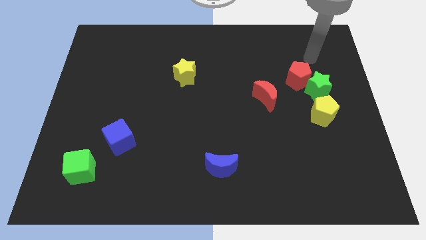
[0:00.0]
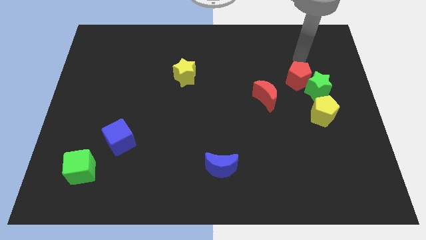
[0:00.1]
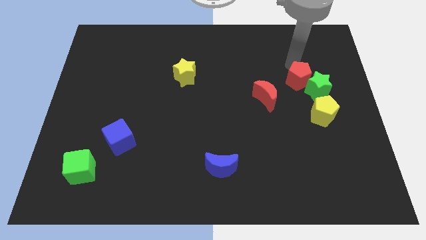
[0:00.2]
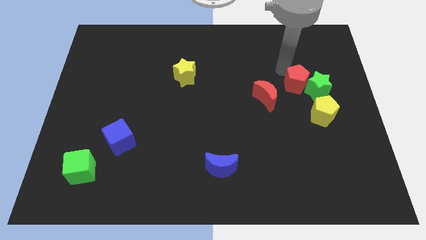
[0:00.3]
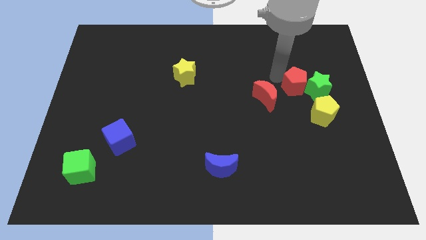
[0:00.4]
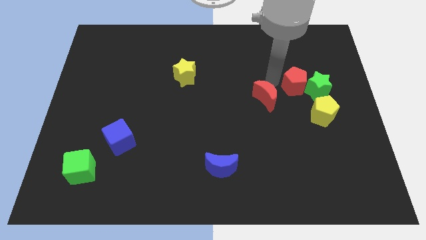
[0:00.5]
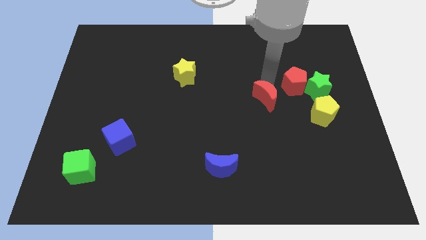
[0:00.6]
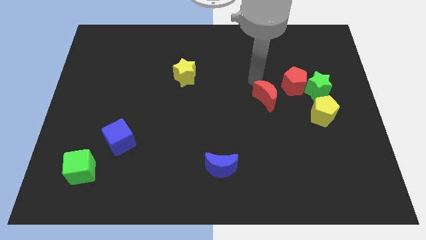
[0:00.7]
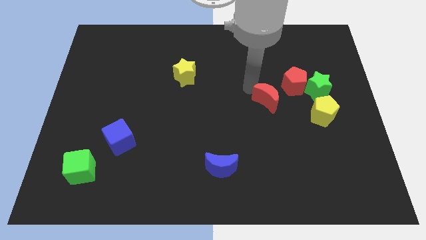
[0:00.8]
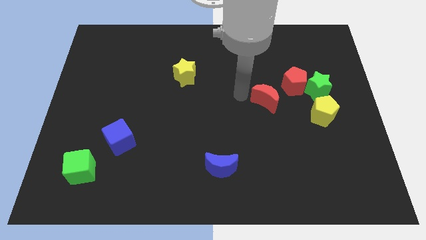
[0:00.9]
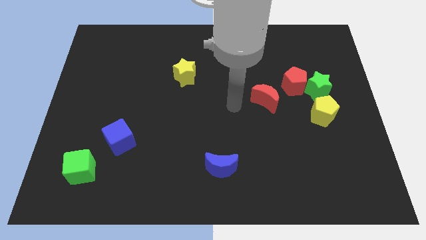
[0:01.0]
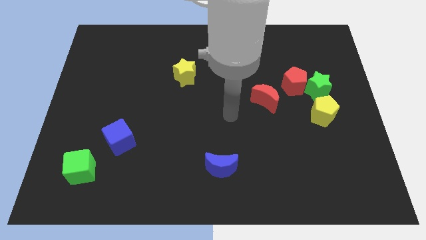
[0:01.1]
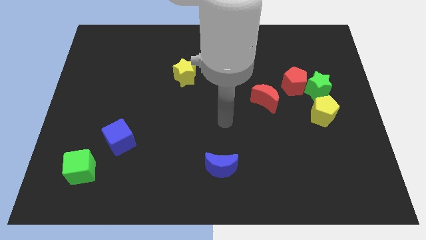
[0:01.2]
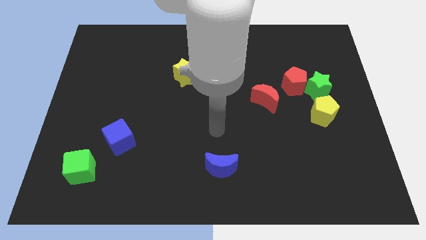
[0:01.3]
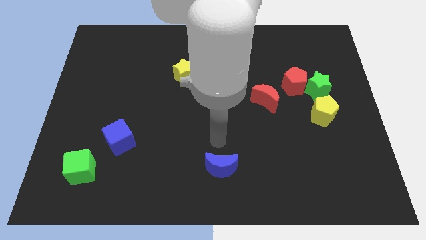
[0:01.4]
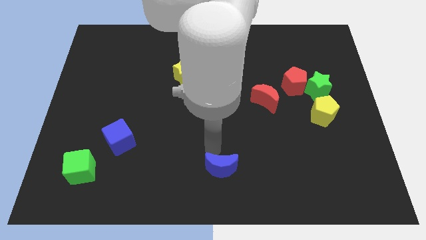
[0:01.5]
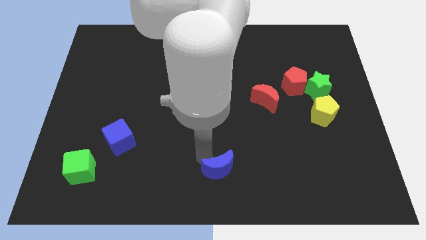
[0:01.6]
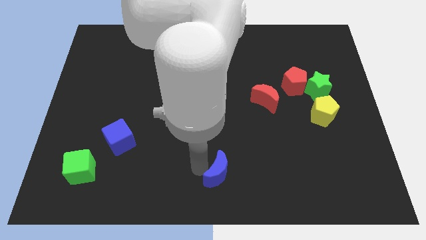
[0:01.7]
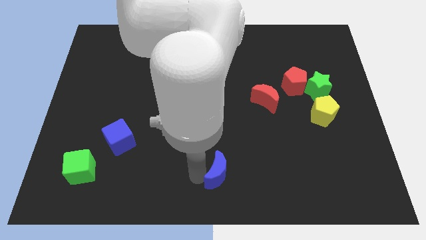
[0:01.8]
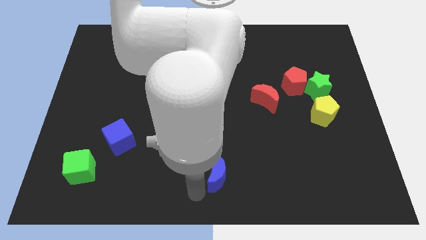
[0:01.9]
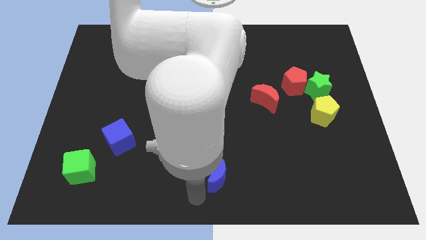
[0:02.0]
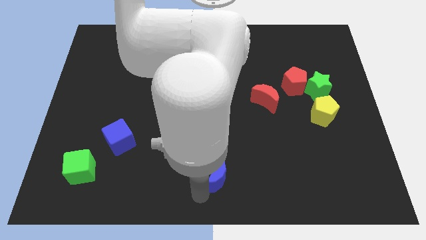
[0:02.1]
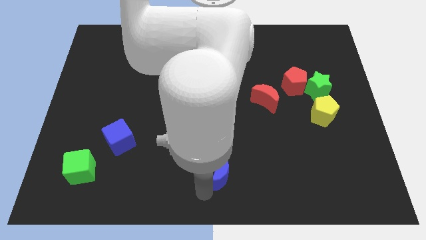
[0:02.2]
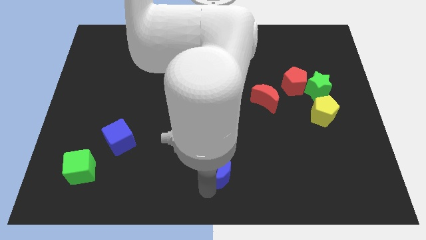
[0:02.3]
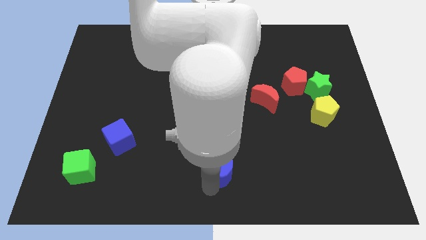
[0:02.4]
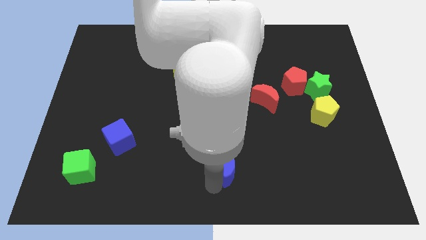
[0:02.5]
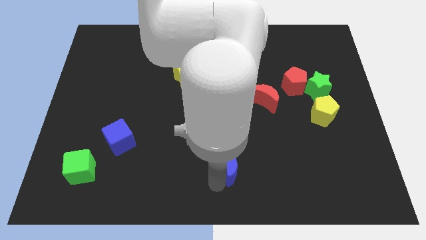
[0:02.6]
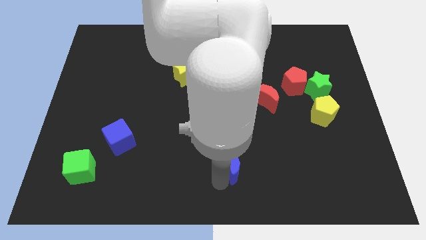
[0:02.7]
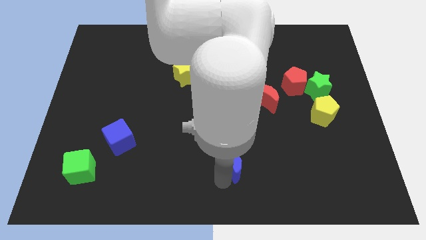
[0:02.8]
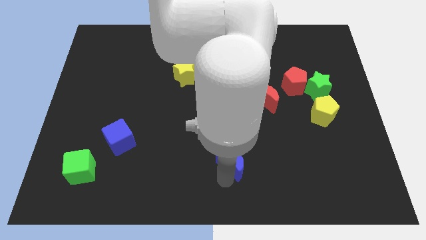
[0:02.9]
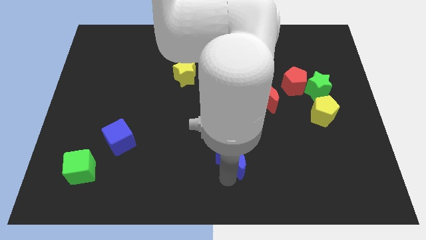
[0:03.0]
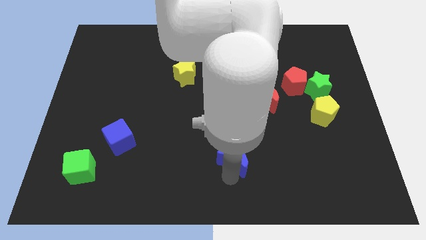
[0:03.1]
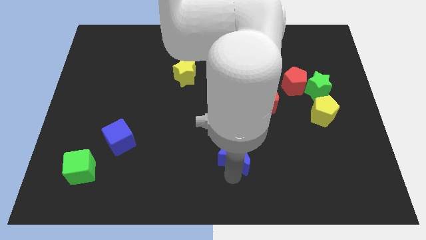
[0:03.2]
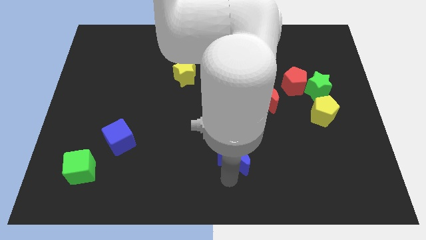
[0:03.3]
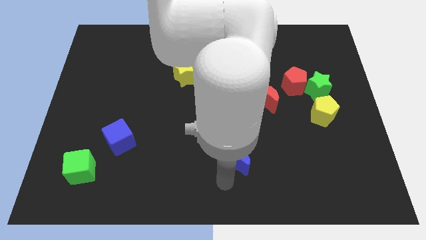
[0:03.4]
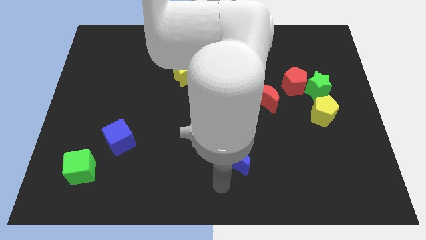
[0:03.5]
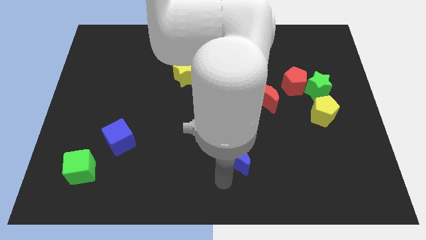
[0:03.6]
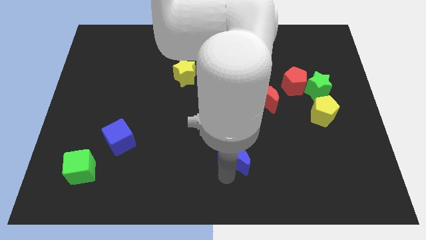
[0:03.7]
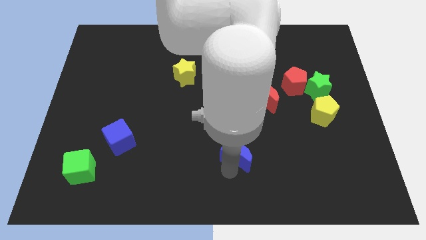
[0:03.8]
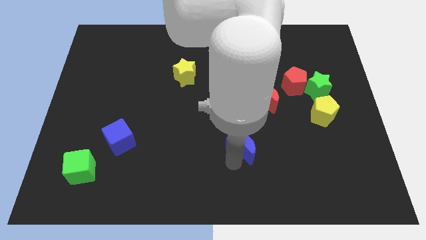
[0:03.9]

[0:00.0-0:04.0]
push the blue moon a little diagonally upwards and right

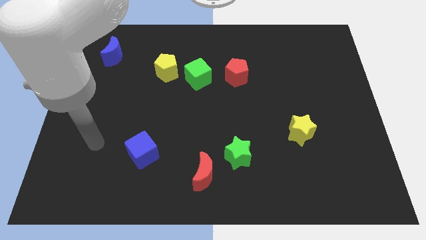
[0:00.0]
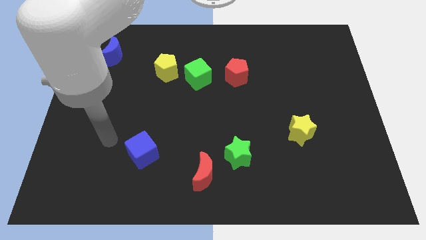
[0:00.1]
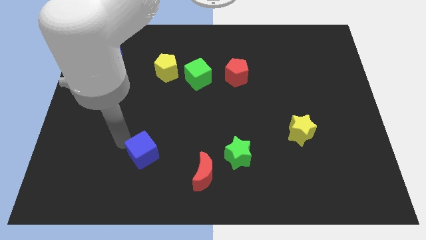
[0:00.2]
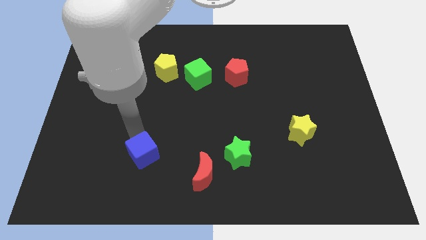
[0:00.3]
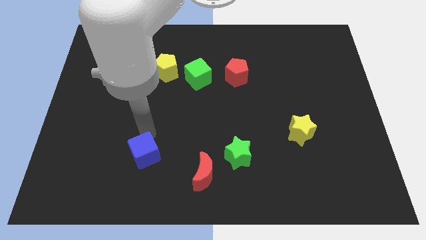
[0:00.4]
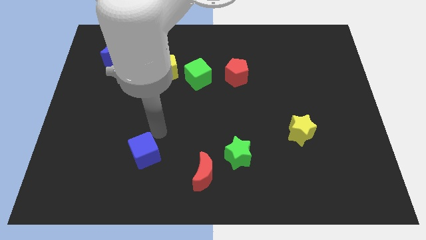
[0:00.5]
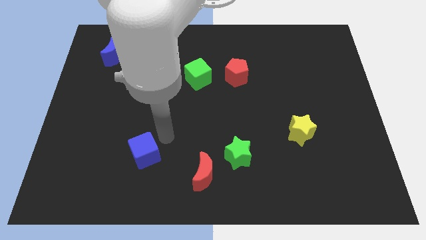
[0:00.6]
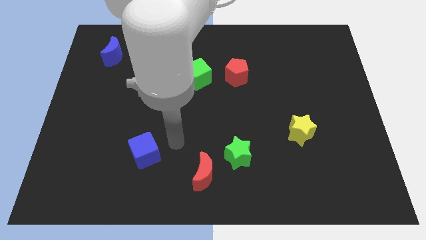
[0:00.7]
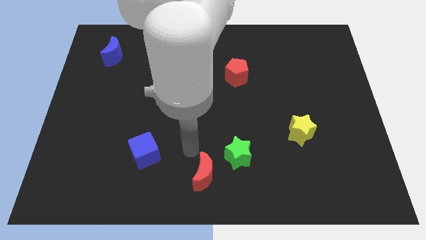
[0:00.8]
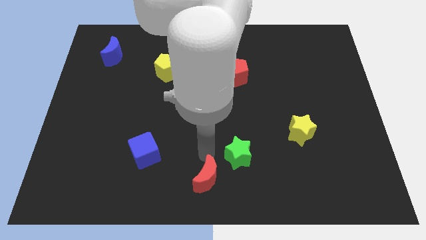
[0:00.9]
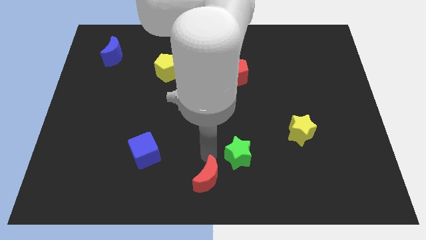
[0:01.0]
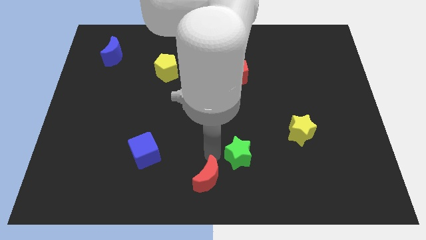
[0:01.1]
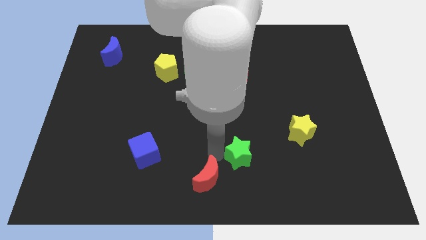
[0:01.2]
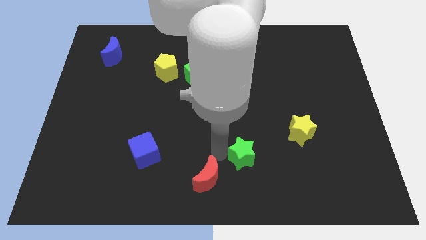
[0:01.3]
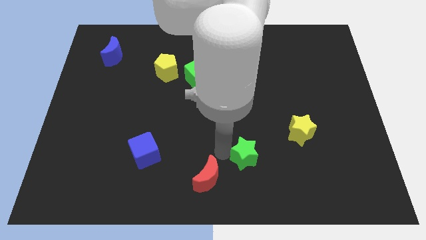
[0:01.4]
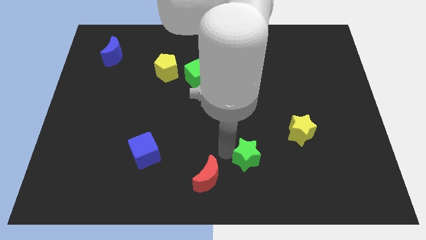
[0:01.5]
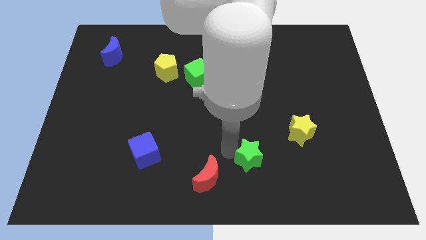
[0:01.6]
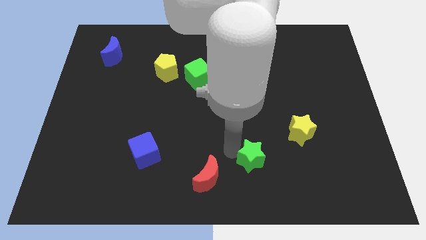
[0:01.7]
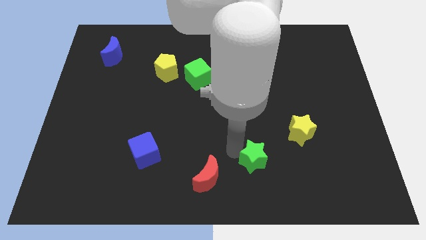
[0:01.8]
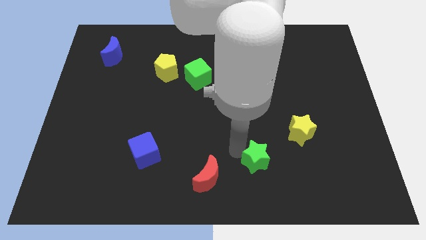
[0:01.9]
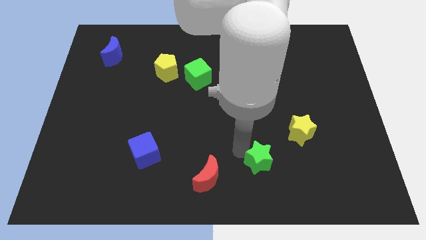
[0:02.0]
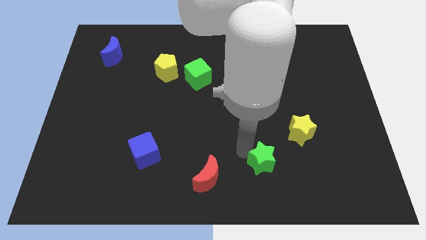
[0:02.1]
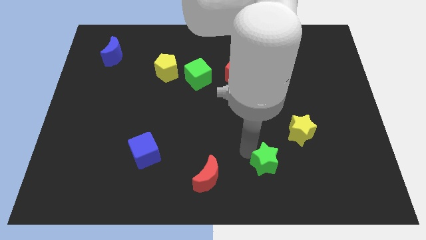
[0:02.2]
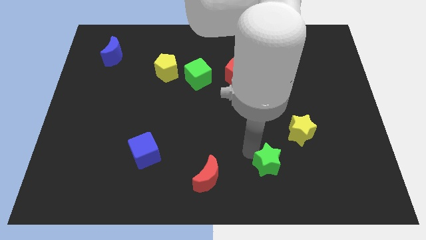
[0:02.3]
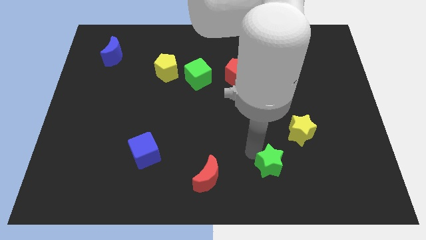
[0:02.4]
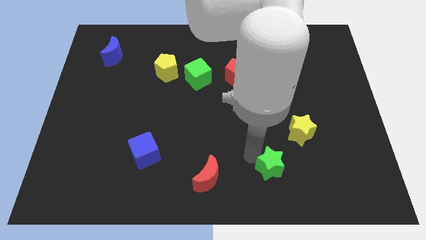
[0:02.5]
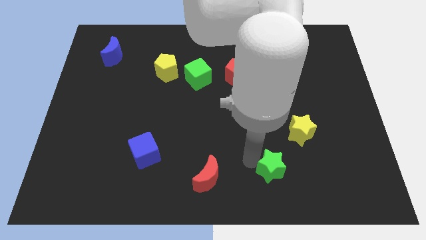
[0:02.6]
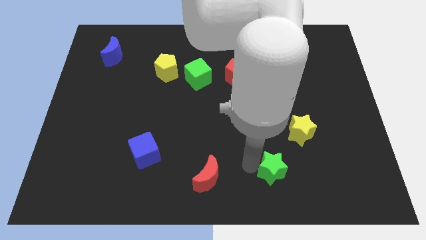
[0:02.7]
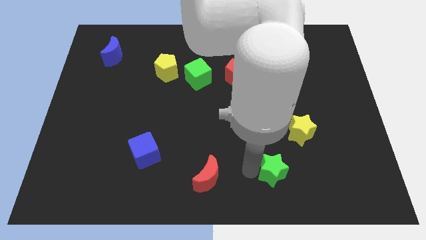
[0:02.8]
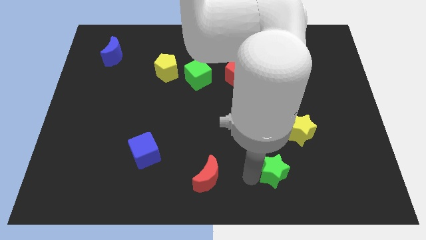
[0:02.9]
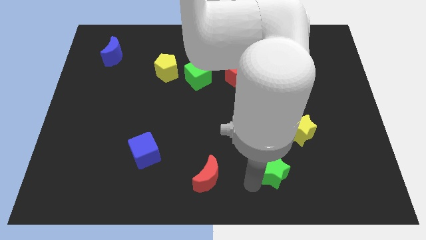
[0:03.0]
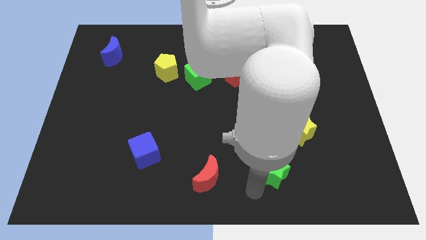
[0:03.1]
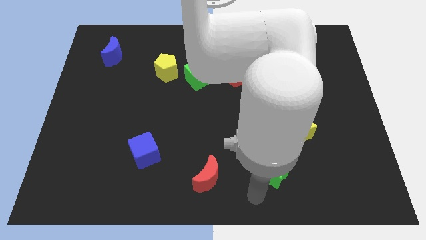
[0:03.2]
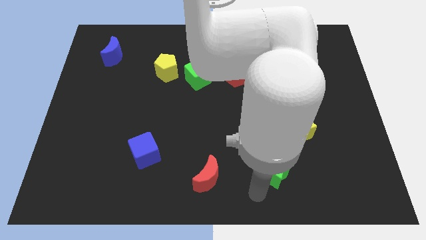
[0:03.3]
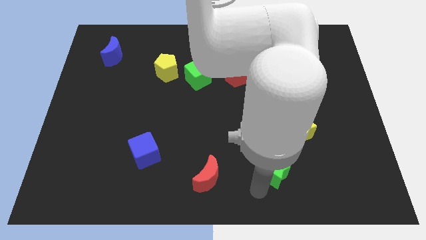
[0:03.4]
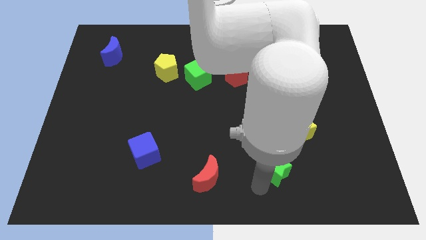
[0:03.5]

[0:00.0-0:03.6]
slightly push the green star right
